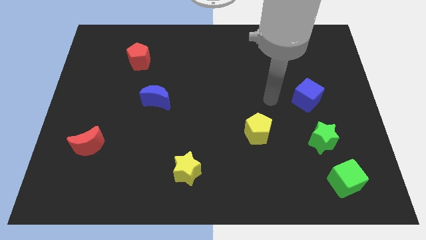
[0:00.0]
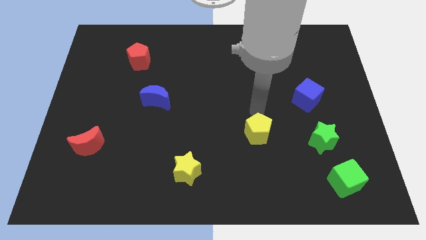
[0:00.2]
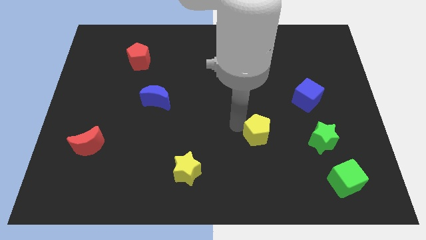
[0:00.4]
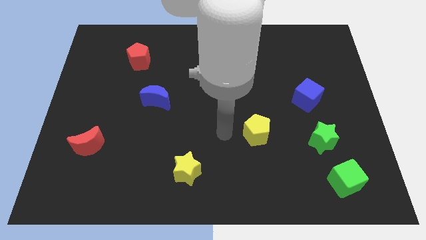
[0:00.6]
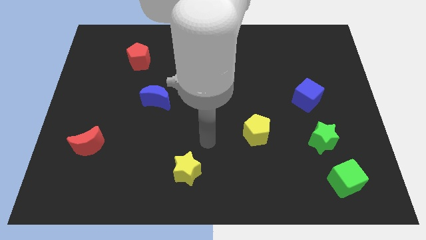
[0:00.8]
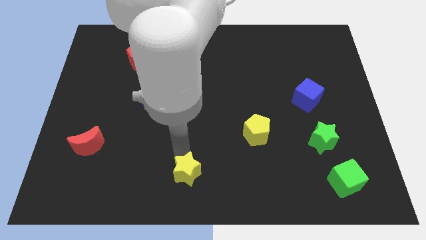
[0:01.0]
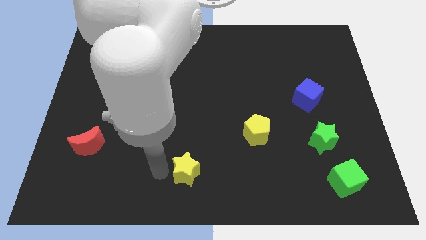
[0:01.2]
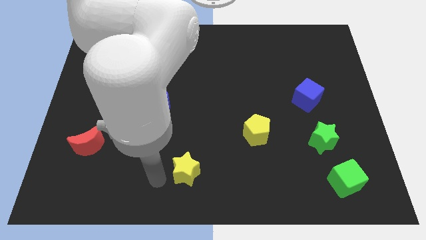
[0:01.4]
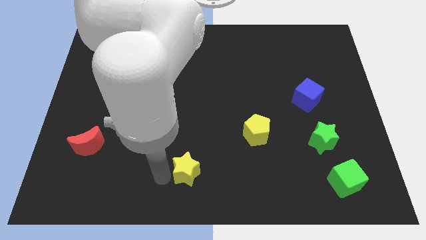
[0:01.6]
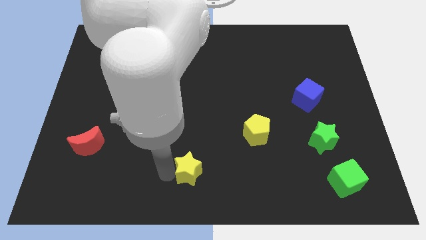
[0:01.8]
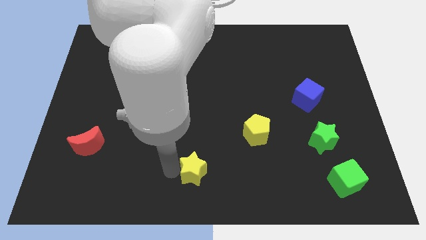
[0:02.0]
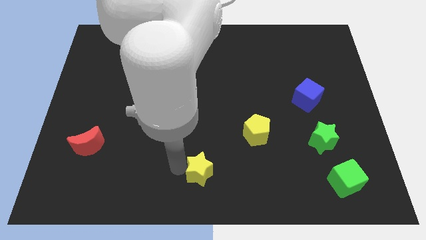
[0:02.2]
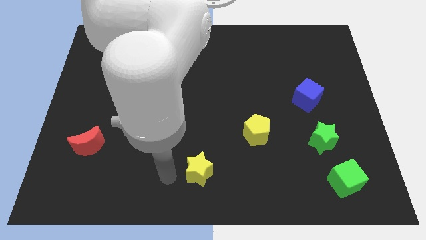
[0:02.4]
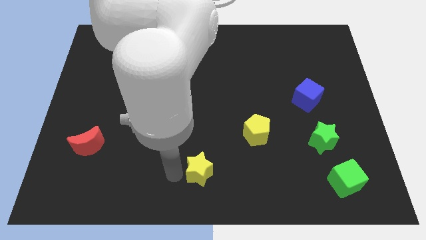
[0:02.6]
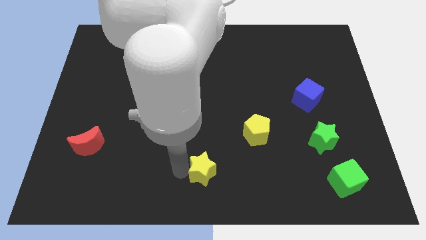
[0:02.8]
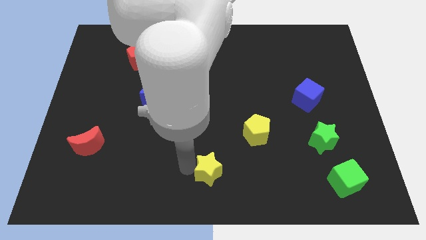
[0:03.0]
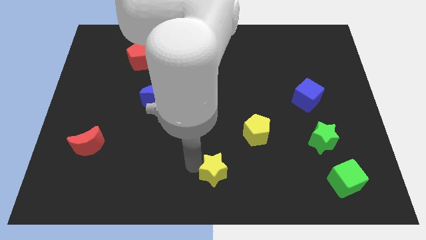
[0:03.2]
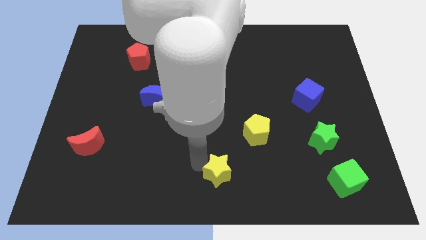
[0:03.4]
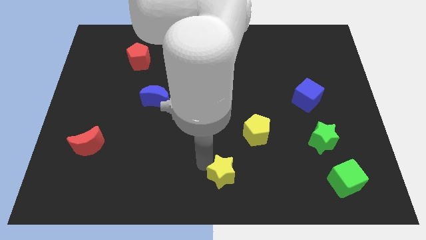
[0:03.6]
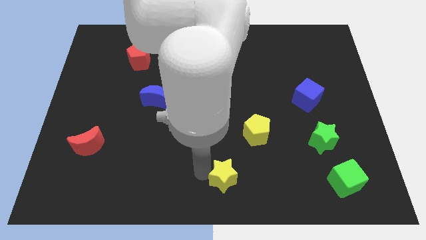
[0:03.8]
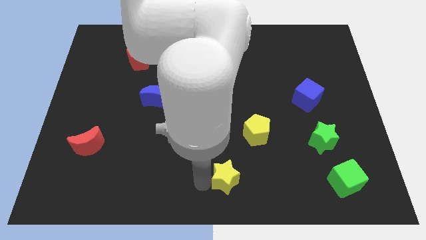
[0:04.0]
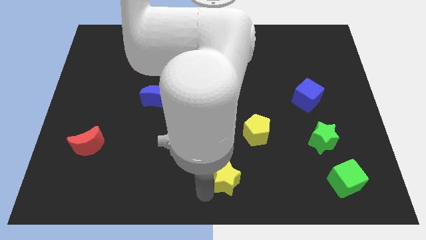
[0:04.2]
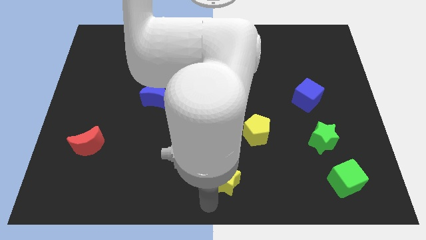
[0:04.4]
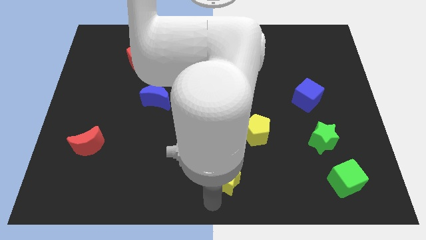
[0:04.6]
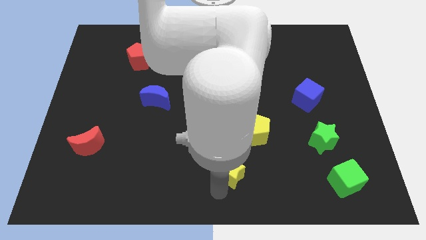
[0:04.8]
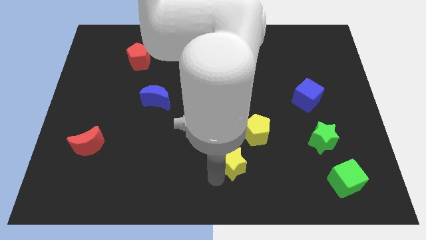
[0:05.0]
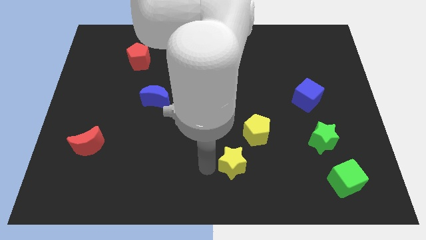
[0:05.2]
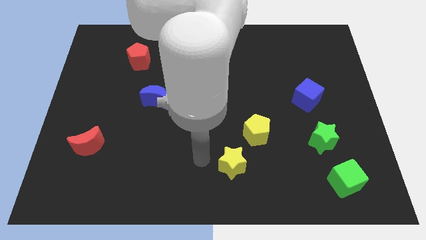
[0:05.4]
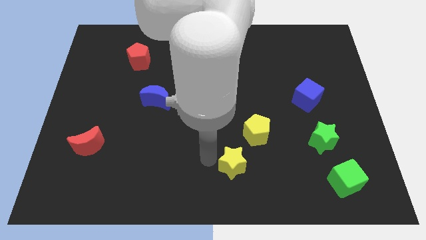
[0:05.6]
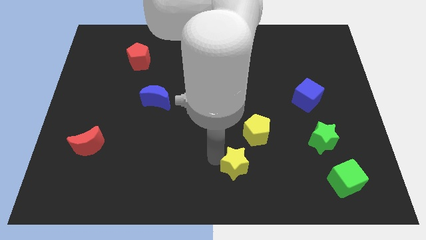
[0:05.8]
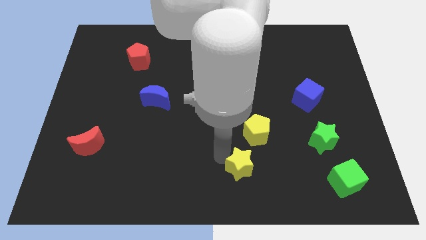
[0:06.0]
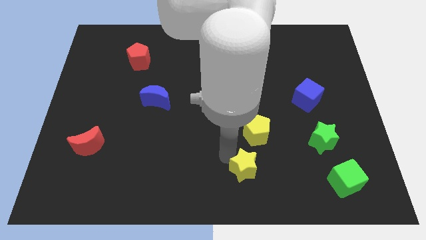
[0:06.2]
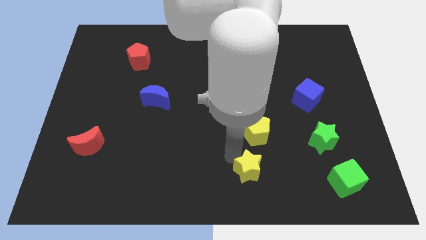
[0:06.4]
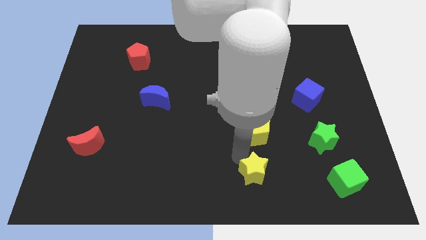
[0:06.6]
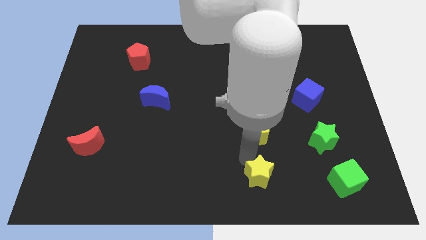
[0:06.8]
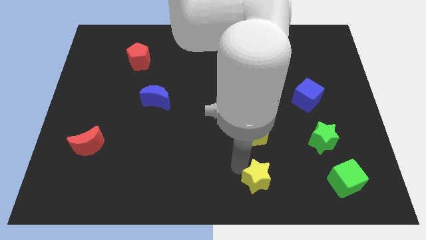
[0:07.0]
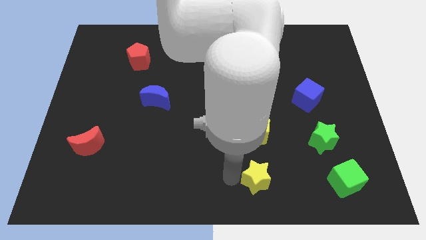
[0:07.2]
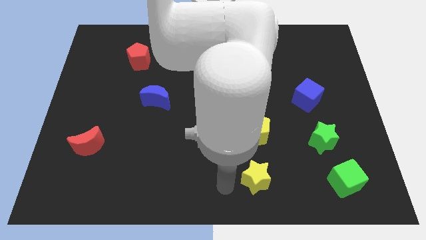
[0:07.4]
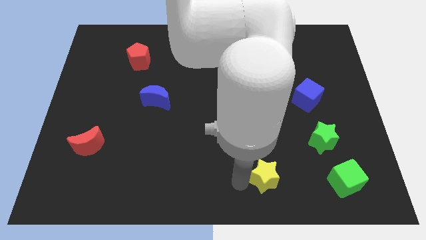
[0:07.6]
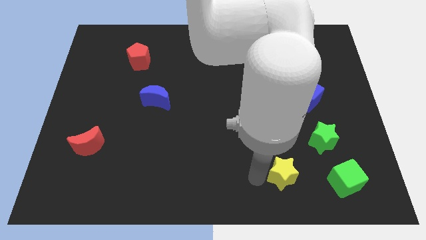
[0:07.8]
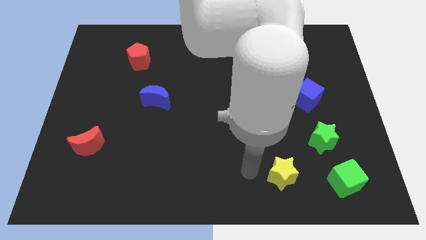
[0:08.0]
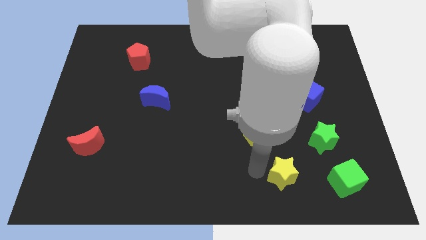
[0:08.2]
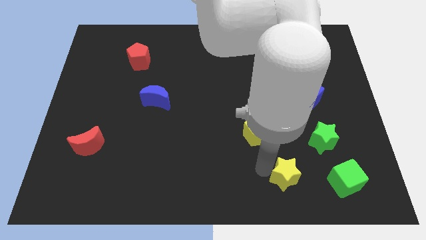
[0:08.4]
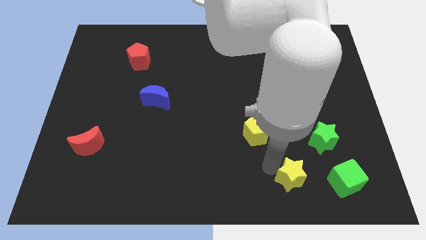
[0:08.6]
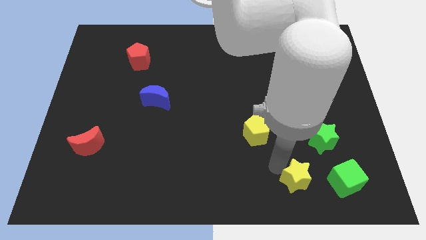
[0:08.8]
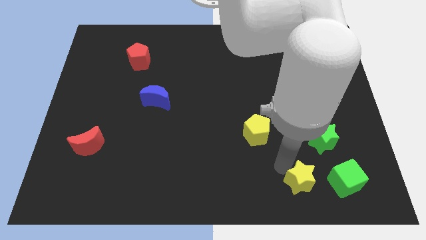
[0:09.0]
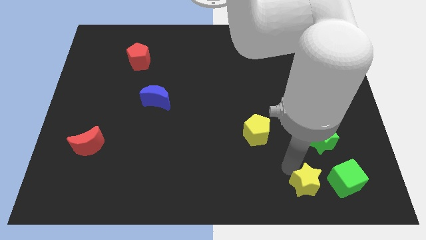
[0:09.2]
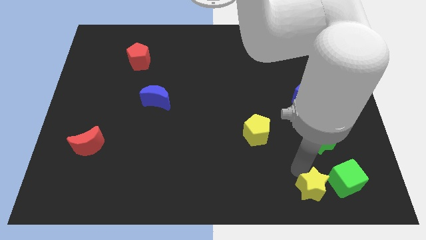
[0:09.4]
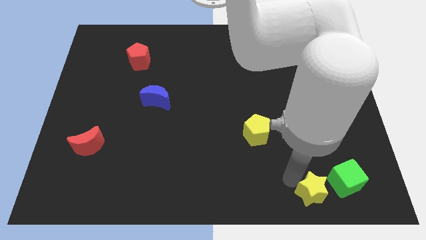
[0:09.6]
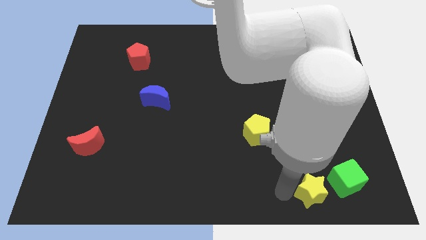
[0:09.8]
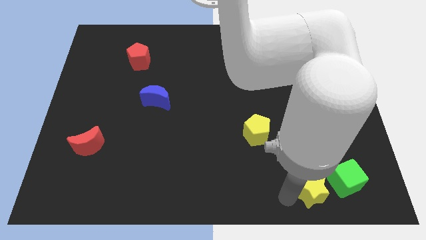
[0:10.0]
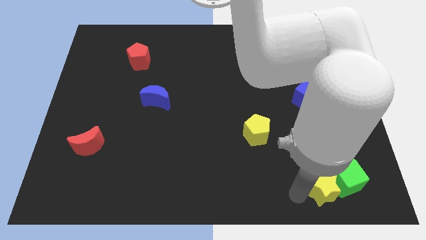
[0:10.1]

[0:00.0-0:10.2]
slide the yellow star to the green cube

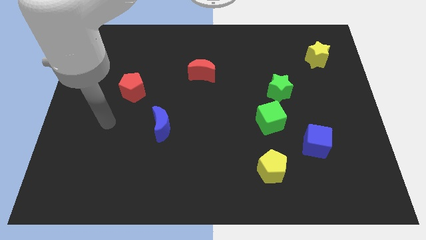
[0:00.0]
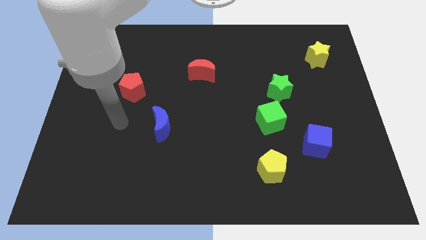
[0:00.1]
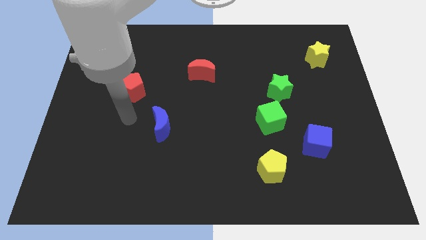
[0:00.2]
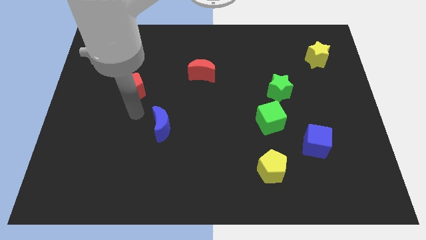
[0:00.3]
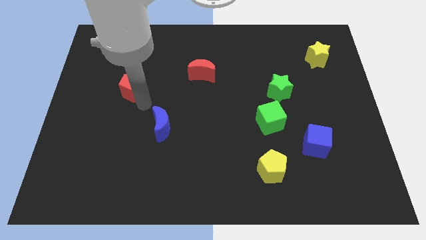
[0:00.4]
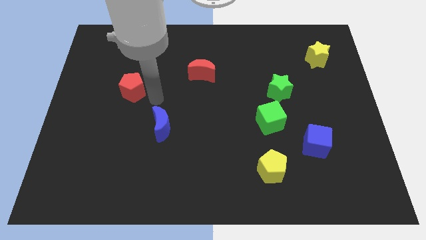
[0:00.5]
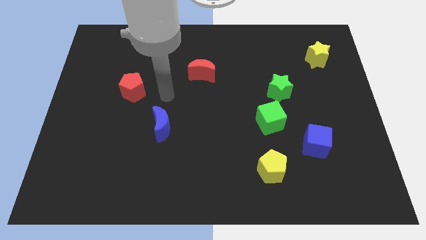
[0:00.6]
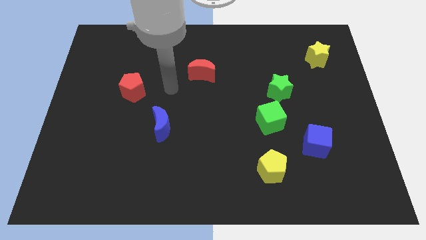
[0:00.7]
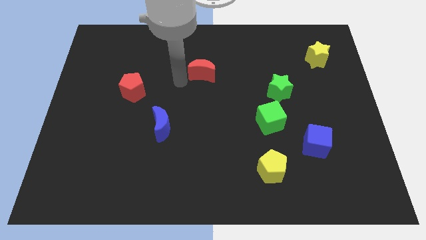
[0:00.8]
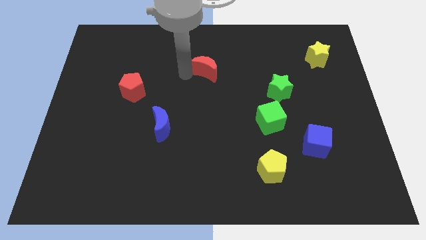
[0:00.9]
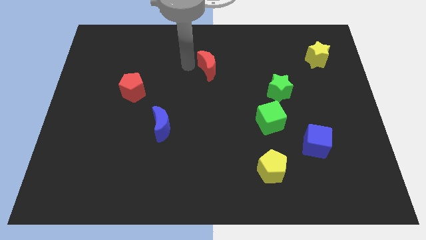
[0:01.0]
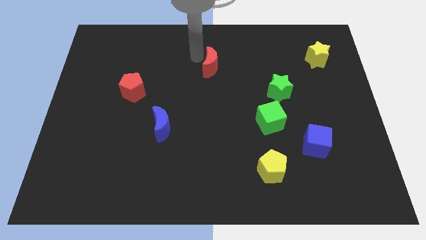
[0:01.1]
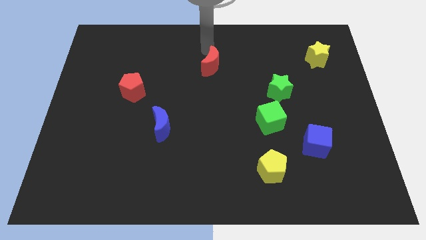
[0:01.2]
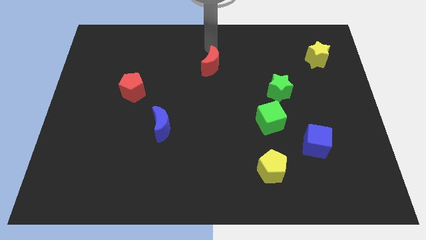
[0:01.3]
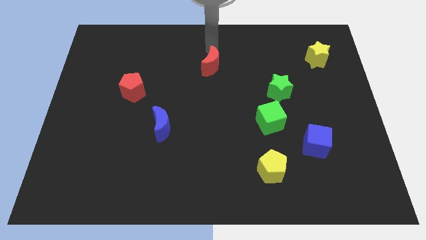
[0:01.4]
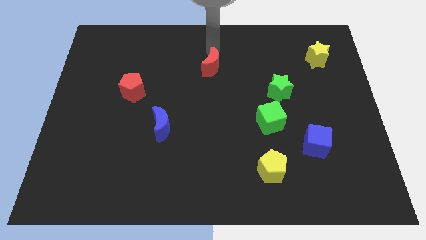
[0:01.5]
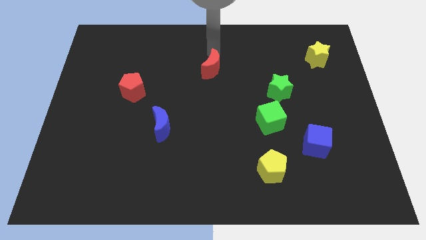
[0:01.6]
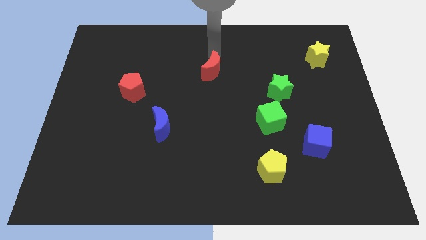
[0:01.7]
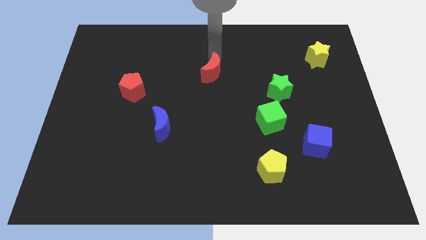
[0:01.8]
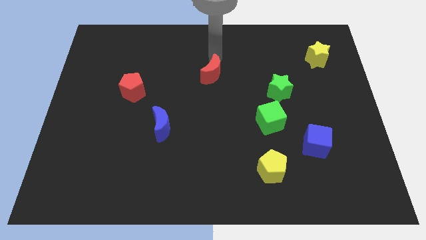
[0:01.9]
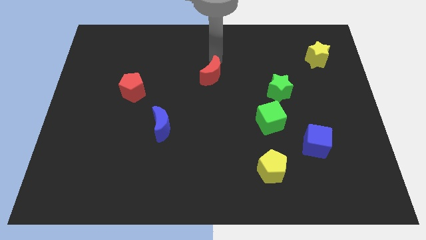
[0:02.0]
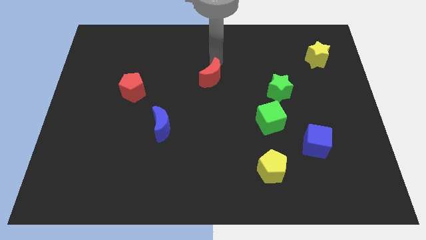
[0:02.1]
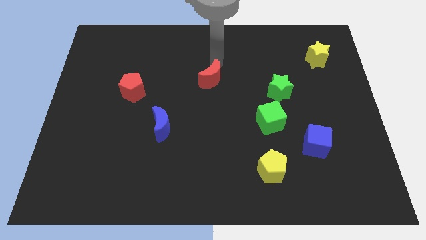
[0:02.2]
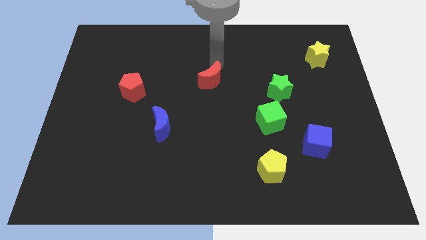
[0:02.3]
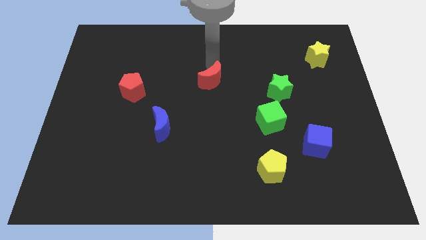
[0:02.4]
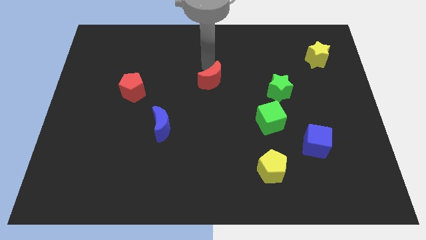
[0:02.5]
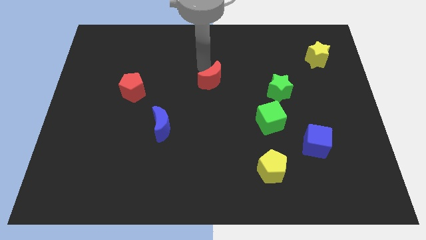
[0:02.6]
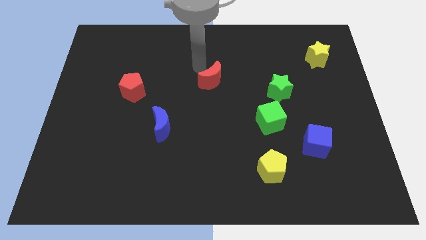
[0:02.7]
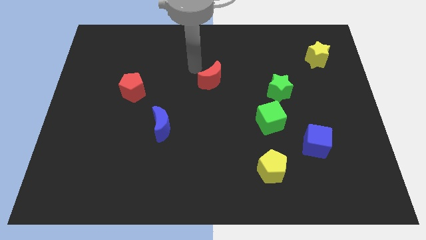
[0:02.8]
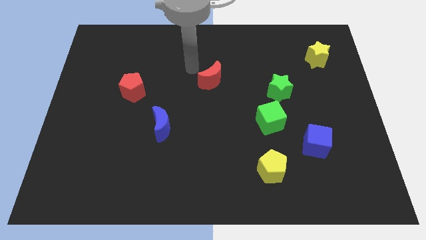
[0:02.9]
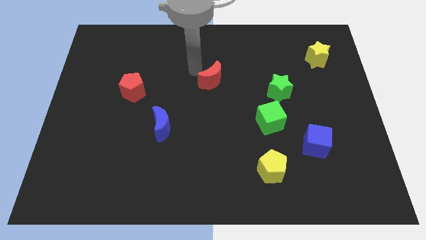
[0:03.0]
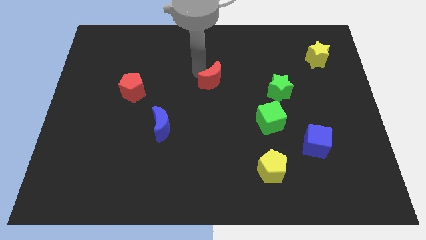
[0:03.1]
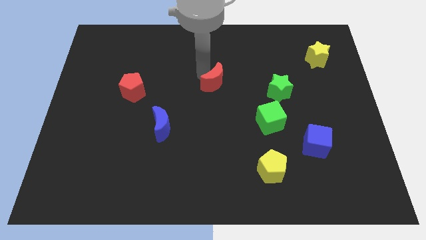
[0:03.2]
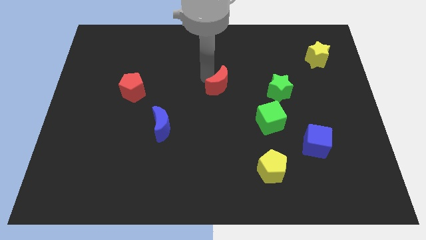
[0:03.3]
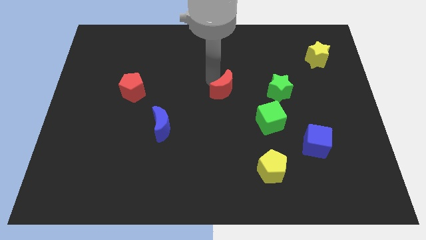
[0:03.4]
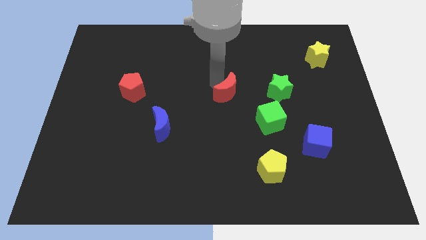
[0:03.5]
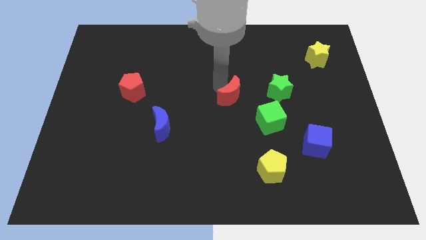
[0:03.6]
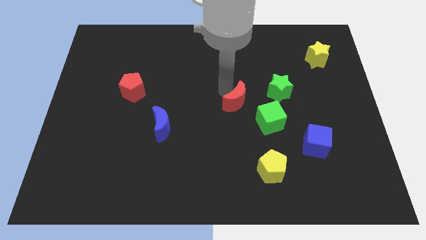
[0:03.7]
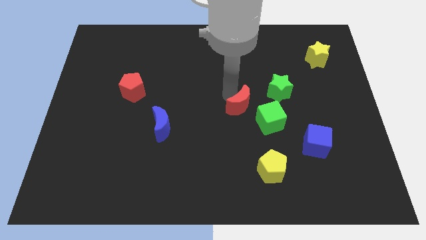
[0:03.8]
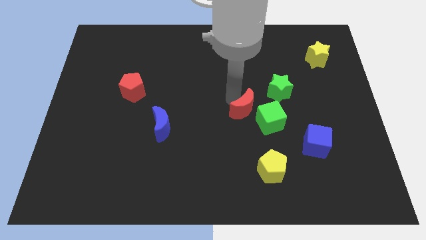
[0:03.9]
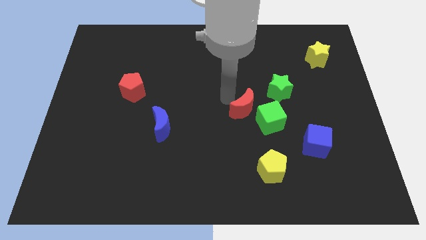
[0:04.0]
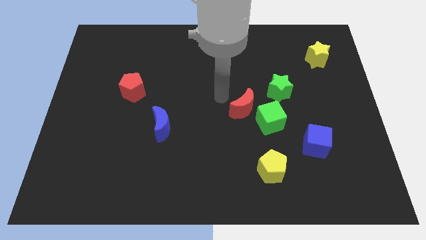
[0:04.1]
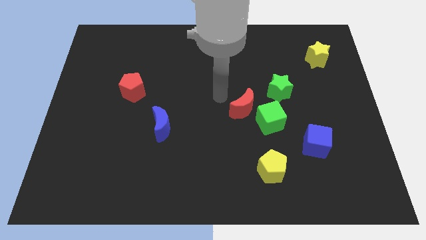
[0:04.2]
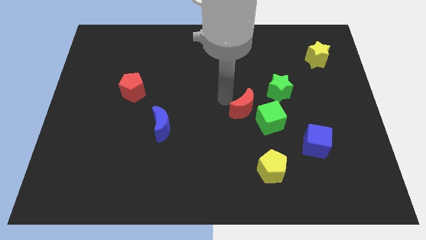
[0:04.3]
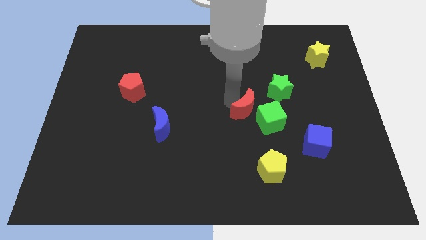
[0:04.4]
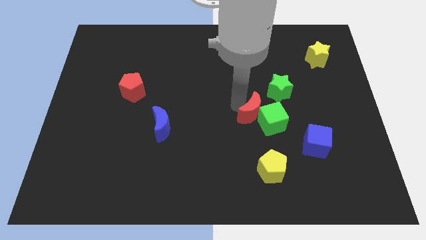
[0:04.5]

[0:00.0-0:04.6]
slide the red moon close to the green cube
